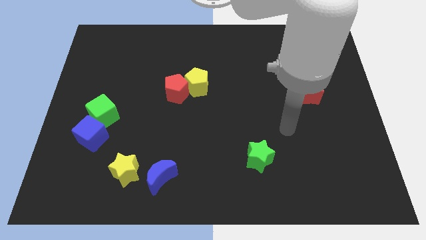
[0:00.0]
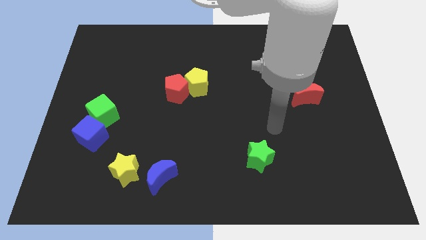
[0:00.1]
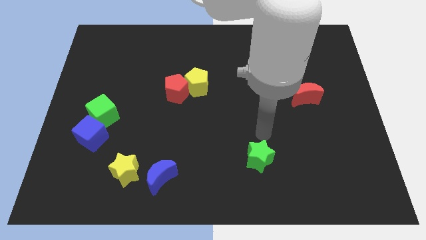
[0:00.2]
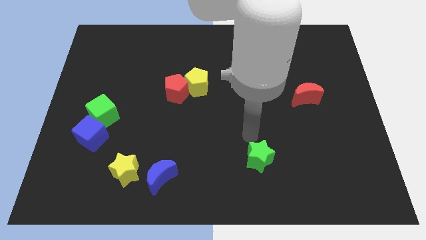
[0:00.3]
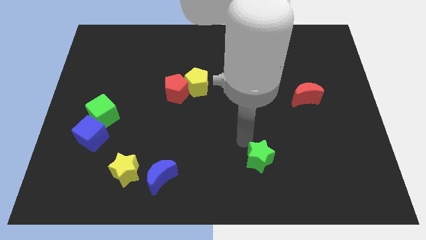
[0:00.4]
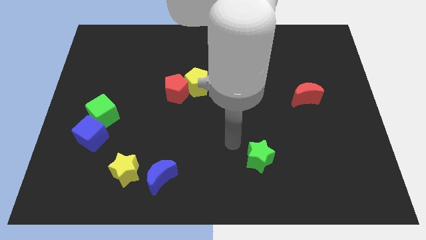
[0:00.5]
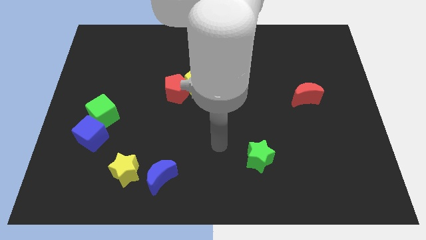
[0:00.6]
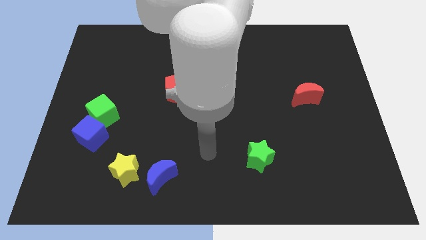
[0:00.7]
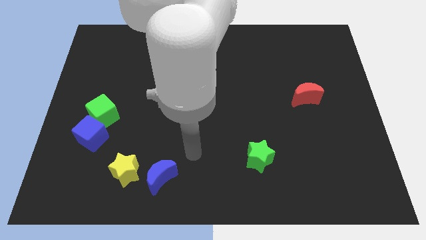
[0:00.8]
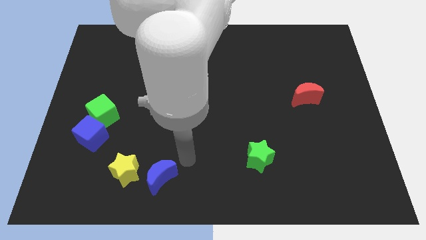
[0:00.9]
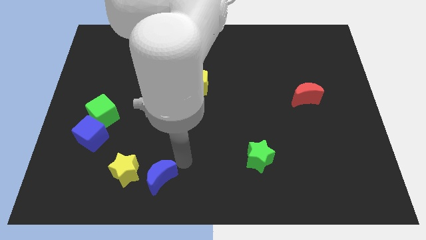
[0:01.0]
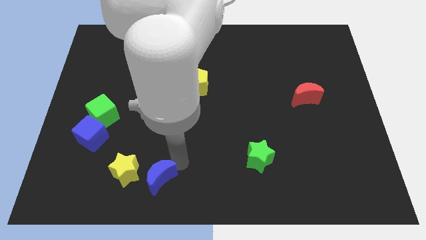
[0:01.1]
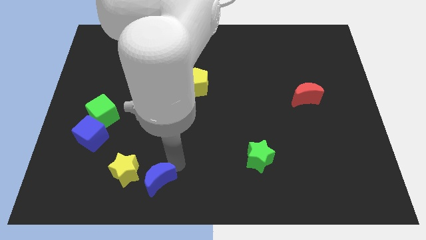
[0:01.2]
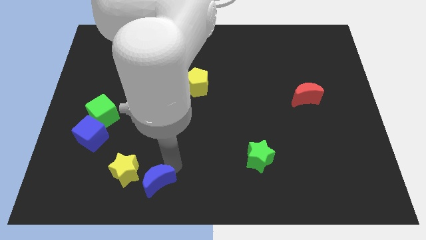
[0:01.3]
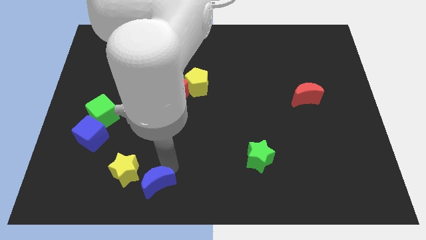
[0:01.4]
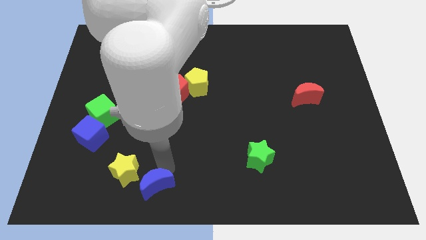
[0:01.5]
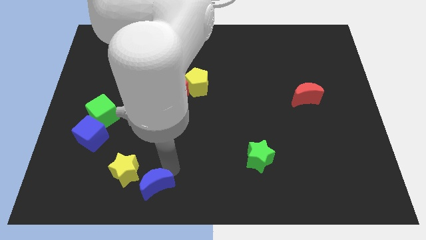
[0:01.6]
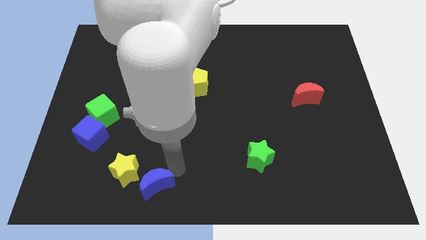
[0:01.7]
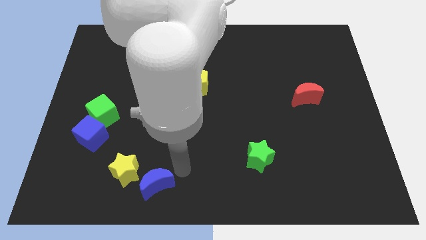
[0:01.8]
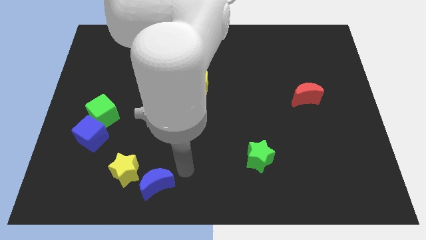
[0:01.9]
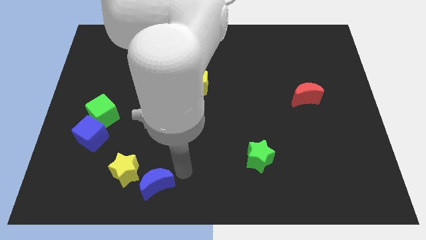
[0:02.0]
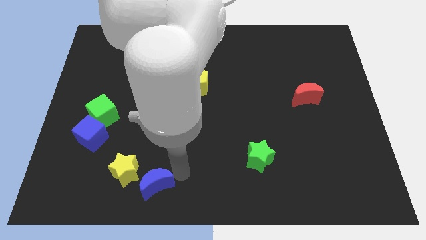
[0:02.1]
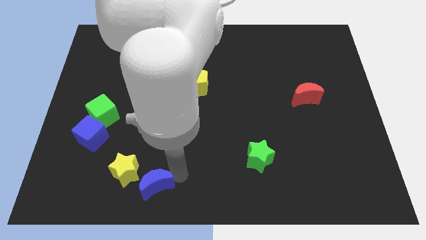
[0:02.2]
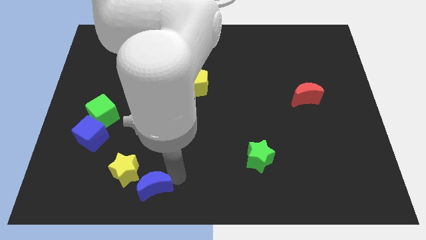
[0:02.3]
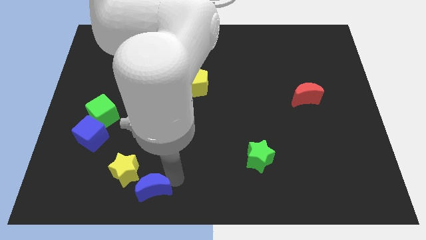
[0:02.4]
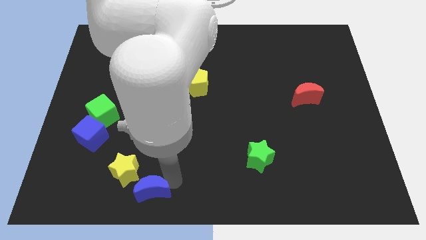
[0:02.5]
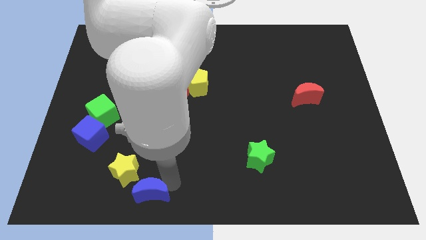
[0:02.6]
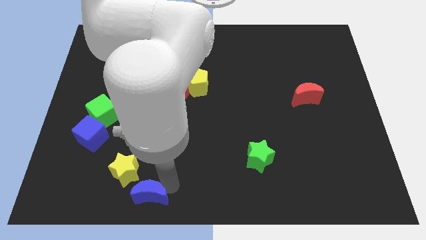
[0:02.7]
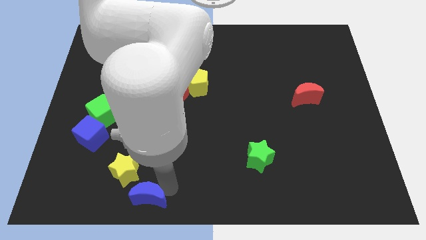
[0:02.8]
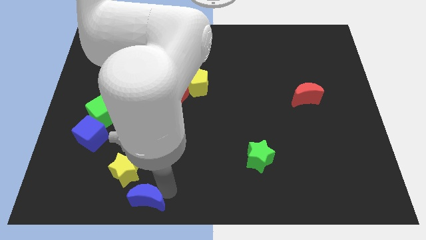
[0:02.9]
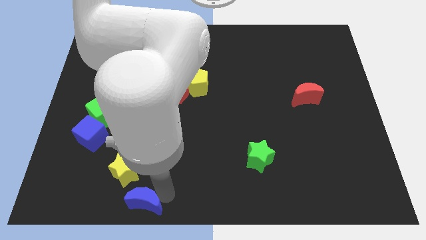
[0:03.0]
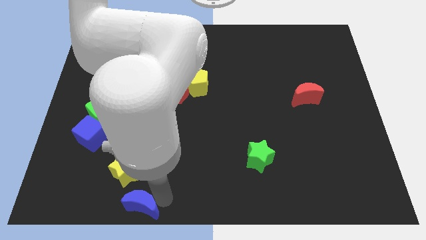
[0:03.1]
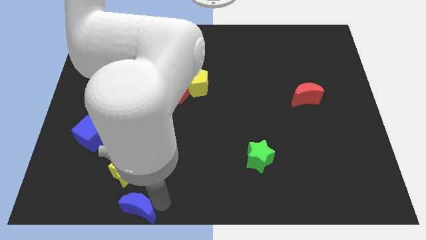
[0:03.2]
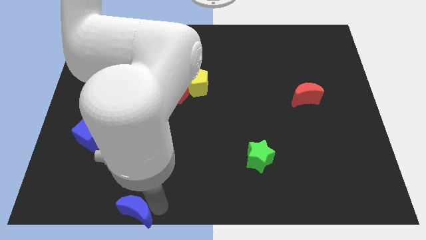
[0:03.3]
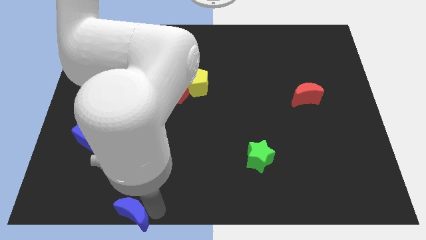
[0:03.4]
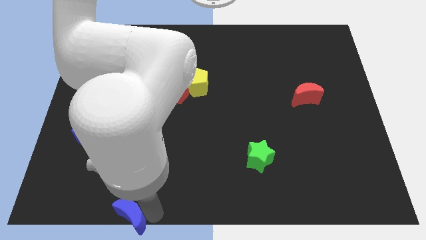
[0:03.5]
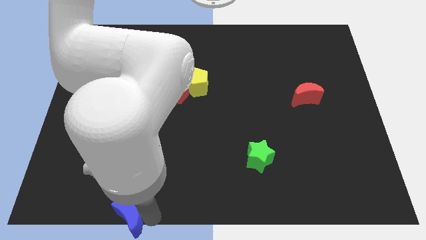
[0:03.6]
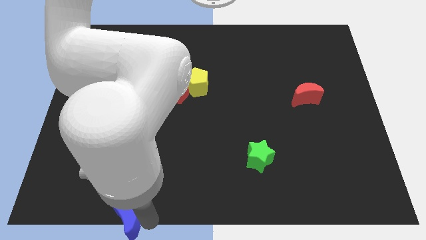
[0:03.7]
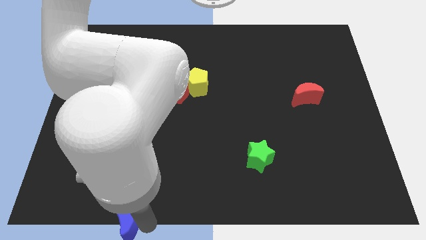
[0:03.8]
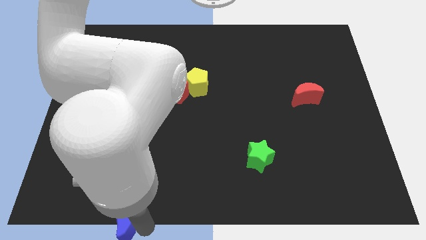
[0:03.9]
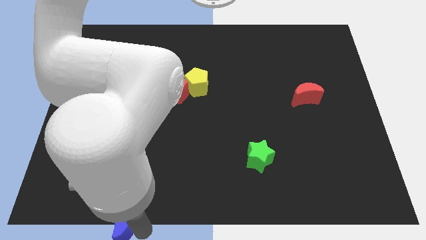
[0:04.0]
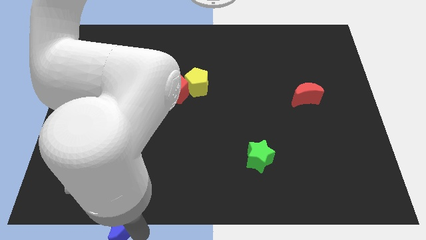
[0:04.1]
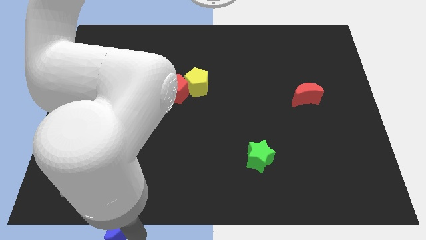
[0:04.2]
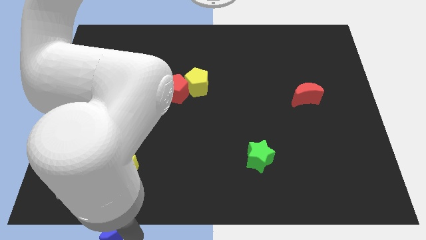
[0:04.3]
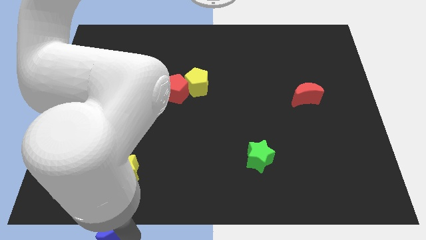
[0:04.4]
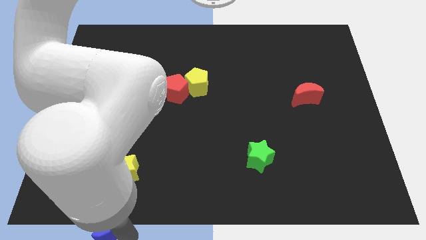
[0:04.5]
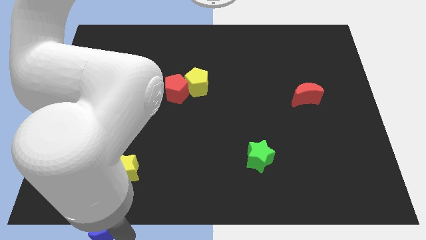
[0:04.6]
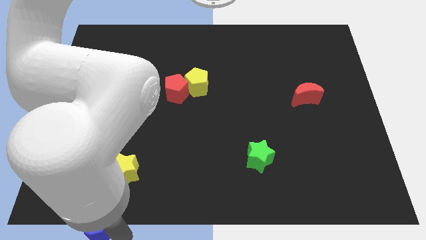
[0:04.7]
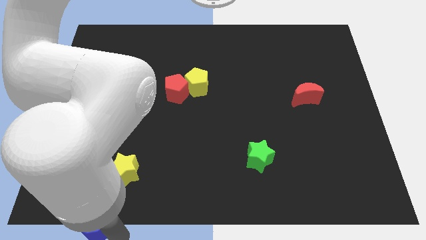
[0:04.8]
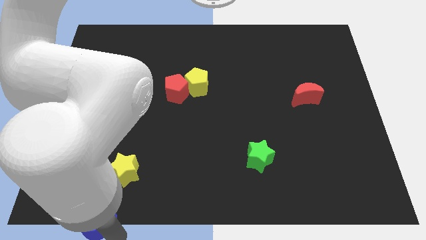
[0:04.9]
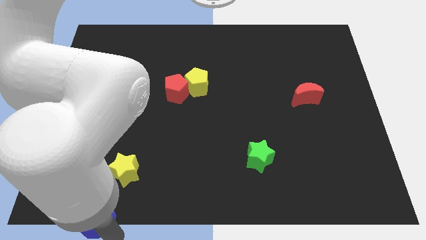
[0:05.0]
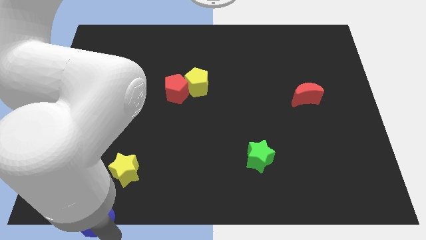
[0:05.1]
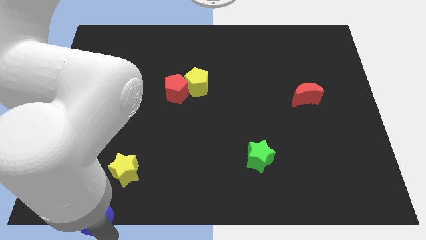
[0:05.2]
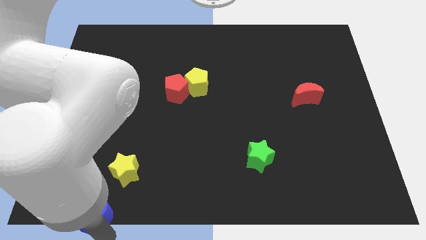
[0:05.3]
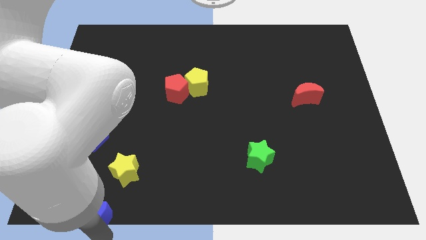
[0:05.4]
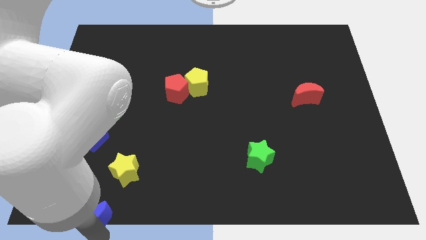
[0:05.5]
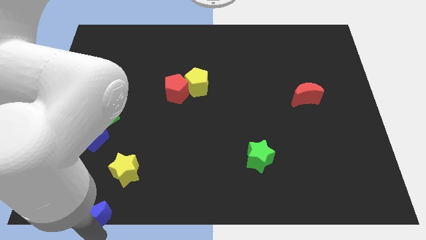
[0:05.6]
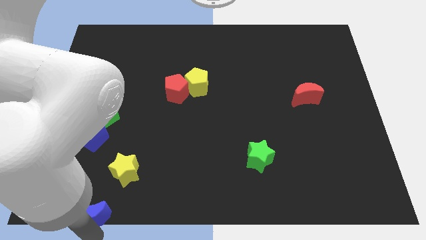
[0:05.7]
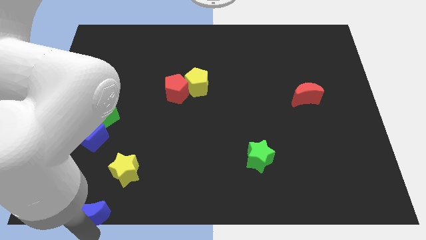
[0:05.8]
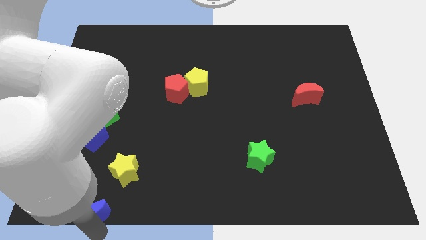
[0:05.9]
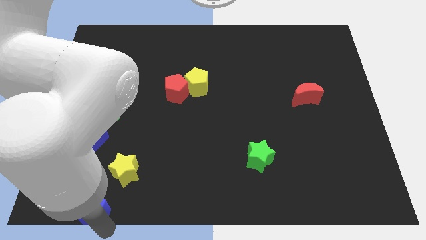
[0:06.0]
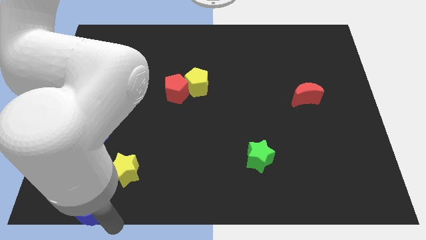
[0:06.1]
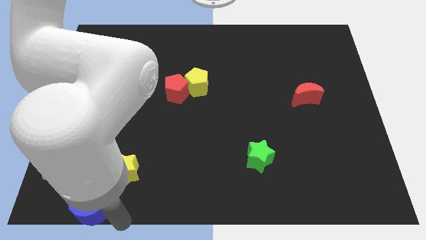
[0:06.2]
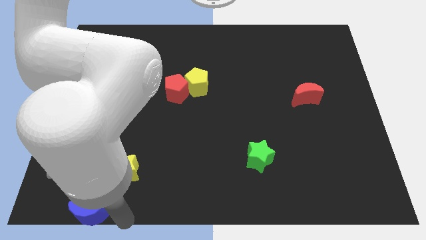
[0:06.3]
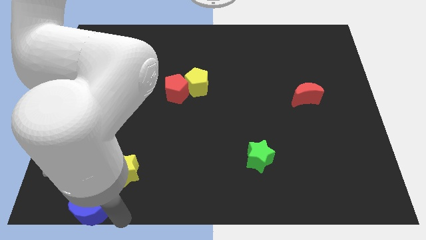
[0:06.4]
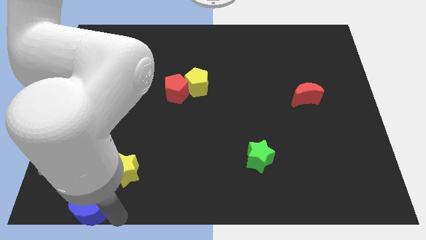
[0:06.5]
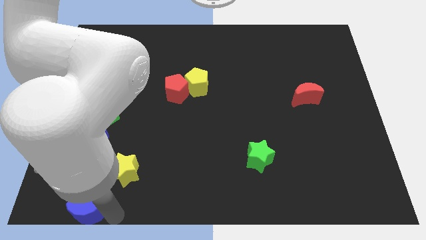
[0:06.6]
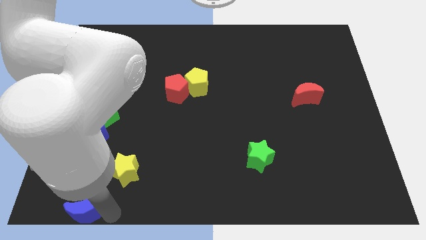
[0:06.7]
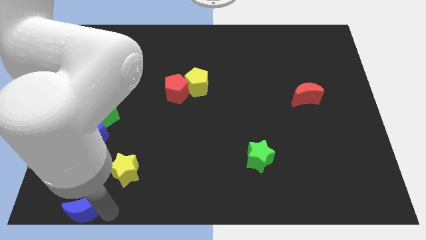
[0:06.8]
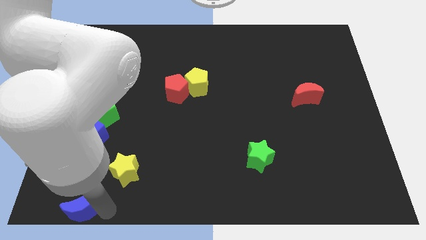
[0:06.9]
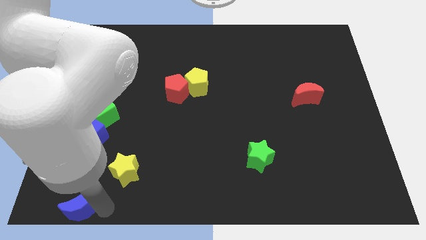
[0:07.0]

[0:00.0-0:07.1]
move the blue moon to the bottom left of the board
